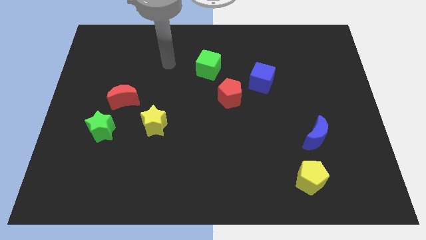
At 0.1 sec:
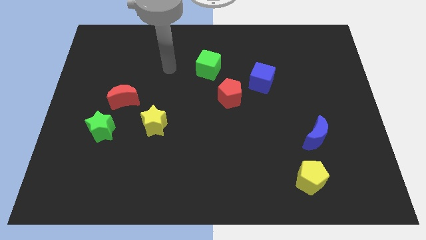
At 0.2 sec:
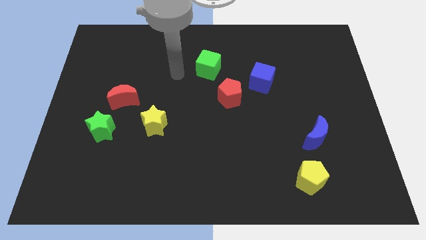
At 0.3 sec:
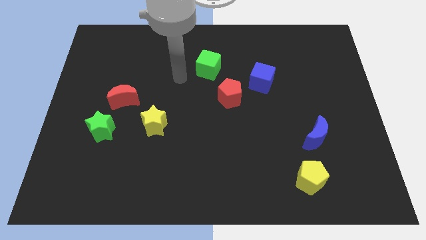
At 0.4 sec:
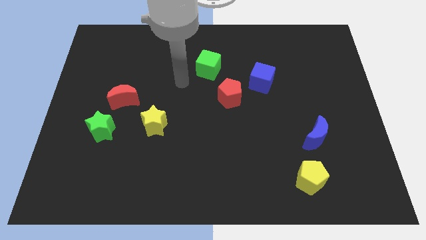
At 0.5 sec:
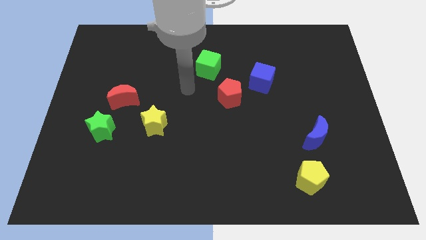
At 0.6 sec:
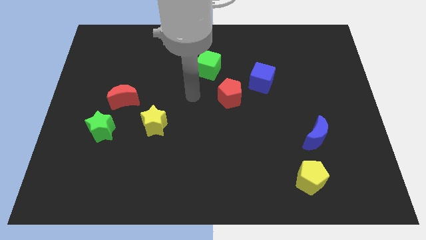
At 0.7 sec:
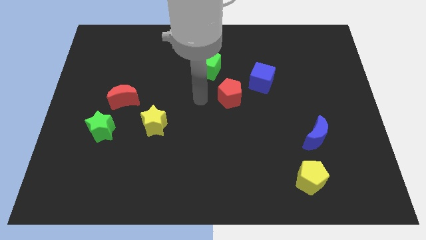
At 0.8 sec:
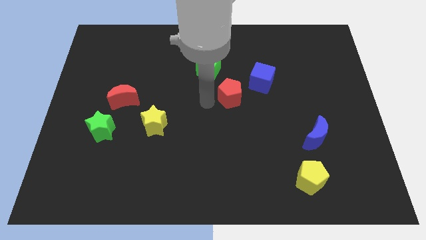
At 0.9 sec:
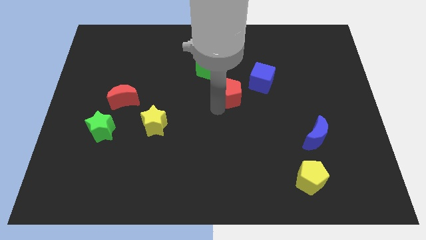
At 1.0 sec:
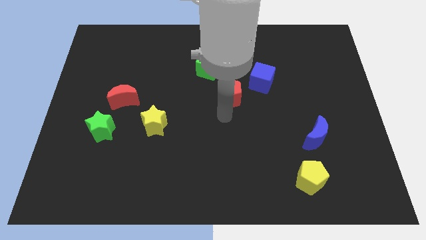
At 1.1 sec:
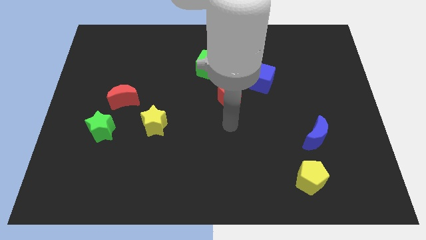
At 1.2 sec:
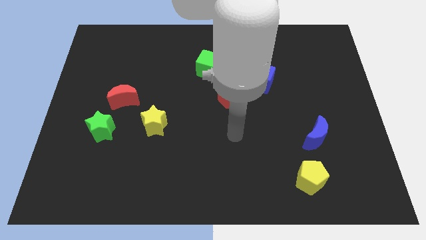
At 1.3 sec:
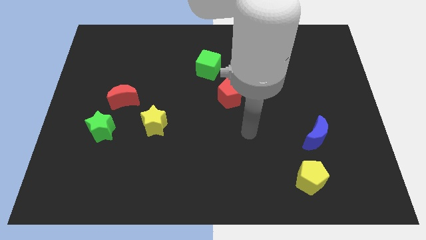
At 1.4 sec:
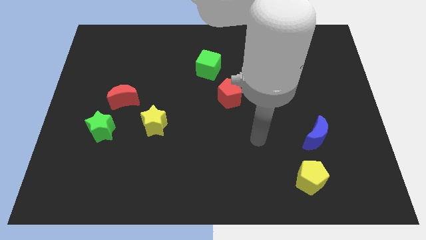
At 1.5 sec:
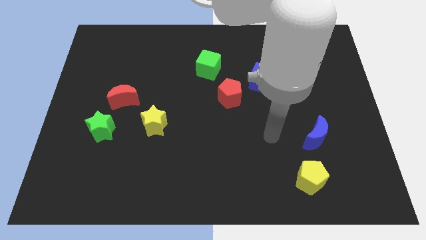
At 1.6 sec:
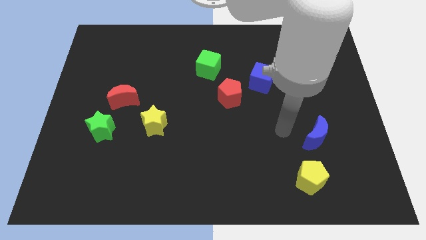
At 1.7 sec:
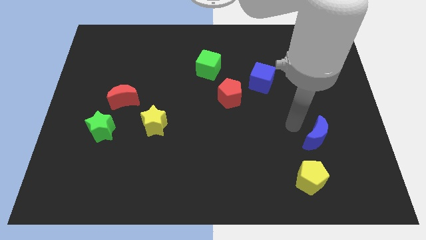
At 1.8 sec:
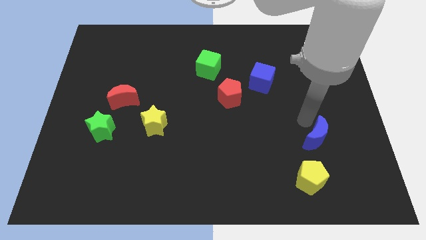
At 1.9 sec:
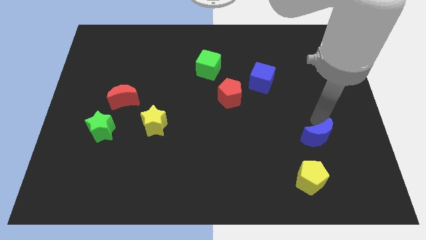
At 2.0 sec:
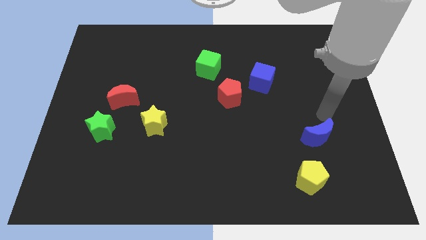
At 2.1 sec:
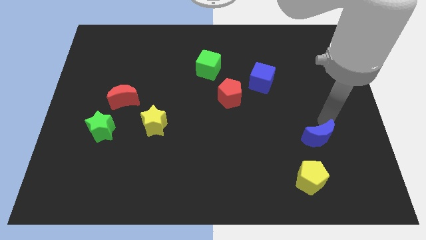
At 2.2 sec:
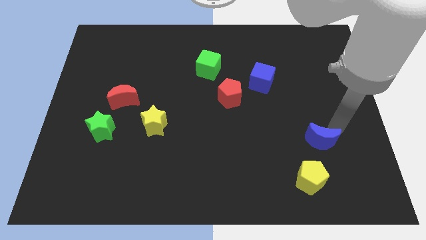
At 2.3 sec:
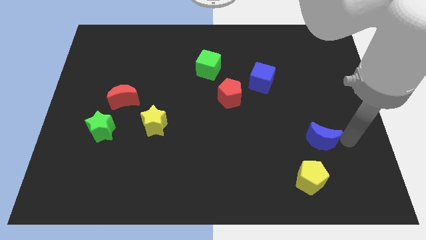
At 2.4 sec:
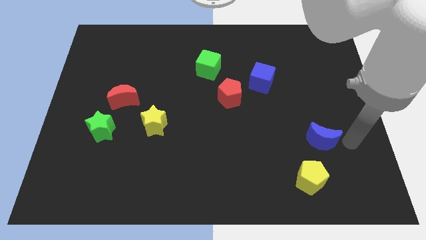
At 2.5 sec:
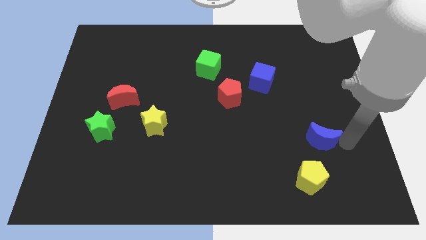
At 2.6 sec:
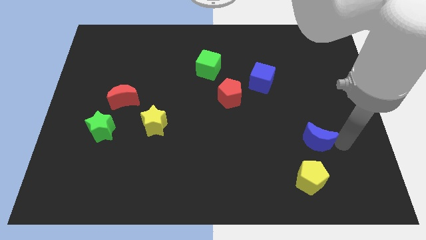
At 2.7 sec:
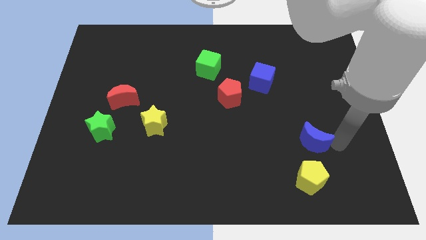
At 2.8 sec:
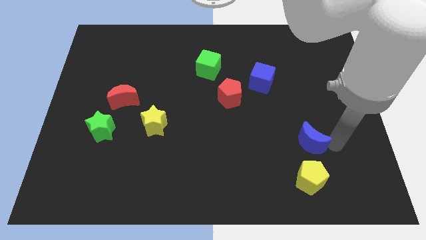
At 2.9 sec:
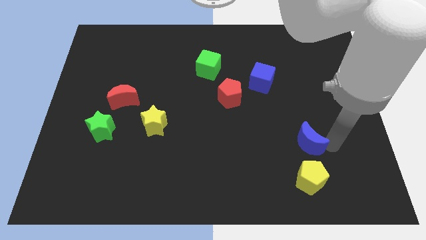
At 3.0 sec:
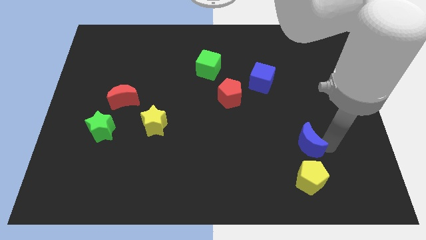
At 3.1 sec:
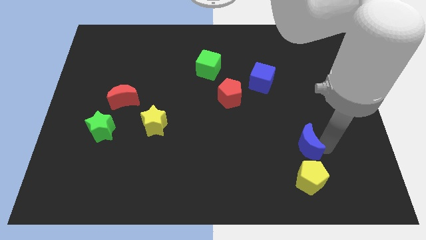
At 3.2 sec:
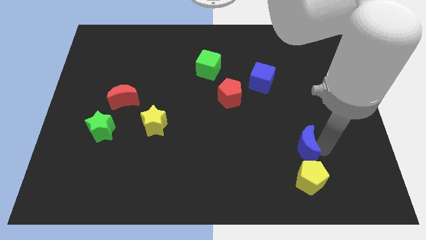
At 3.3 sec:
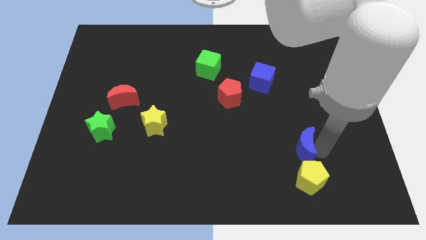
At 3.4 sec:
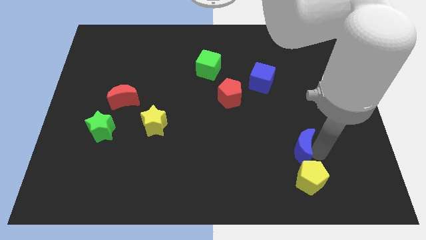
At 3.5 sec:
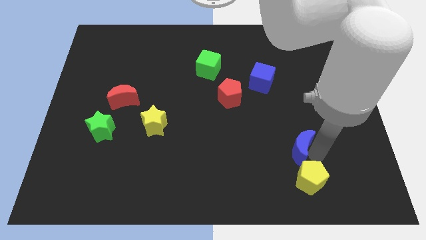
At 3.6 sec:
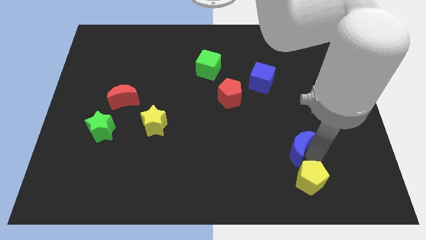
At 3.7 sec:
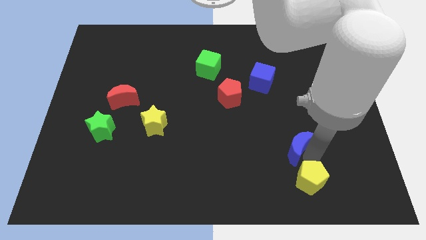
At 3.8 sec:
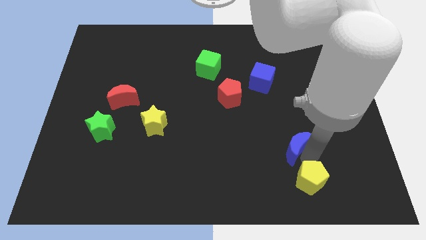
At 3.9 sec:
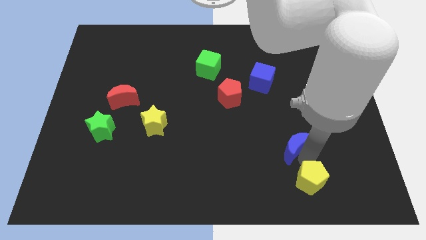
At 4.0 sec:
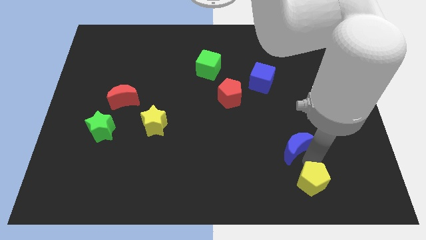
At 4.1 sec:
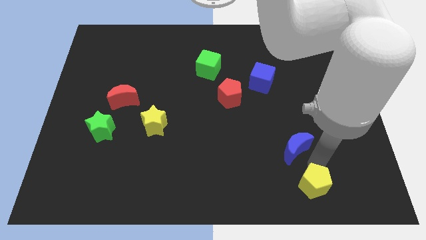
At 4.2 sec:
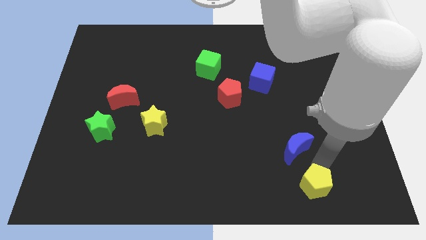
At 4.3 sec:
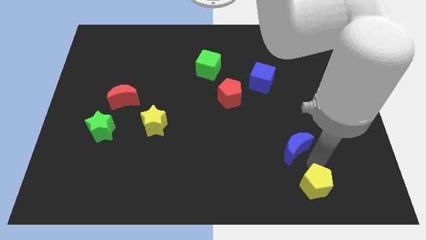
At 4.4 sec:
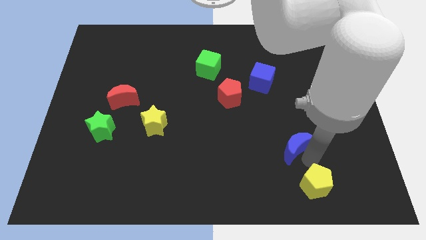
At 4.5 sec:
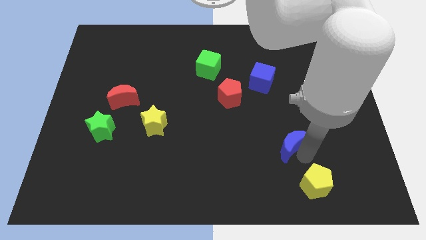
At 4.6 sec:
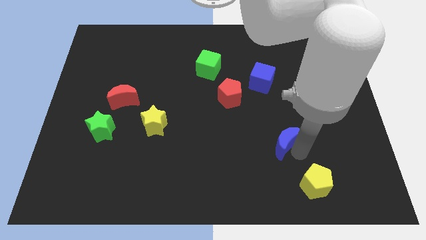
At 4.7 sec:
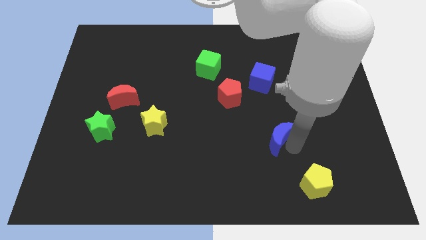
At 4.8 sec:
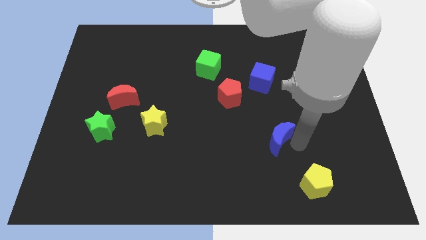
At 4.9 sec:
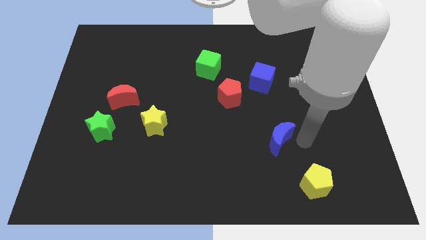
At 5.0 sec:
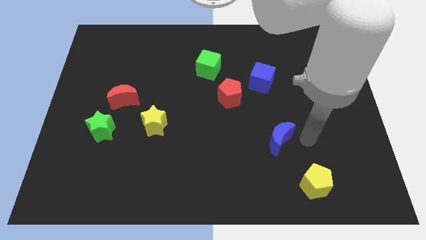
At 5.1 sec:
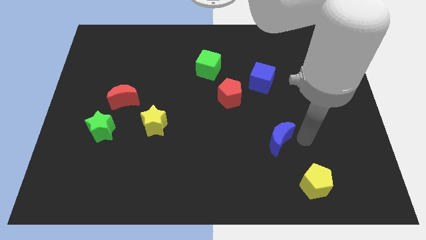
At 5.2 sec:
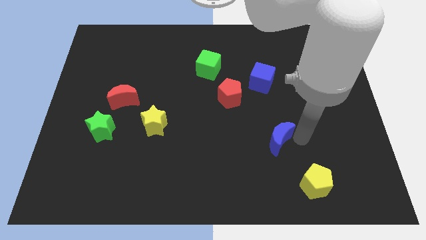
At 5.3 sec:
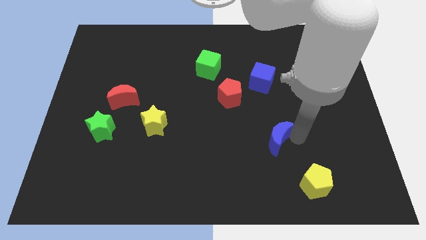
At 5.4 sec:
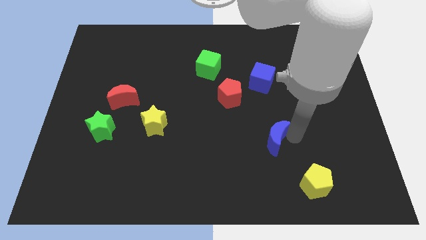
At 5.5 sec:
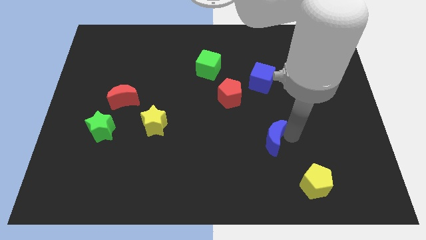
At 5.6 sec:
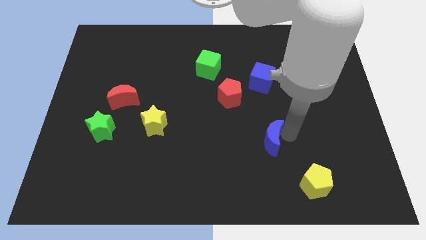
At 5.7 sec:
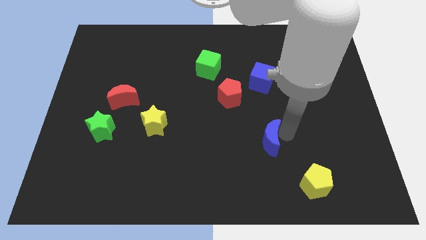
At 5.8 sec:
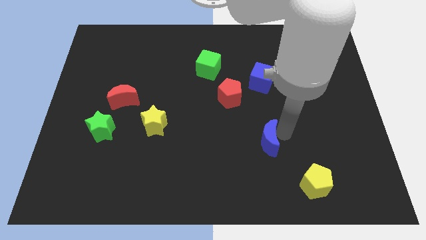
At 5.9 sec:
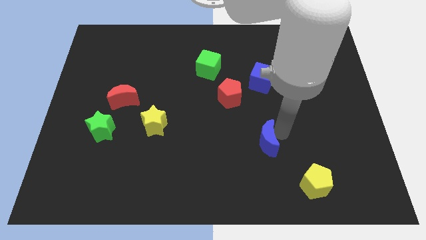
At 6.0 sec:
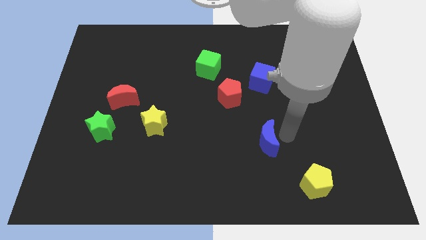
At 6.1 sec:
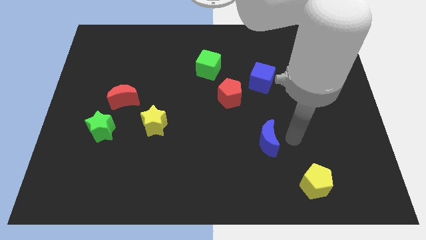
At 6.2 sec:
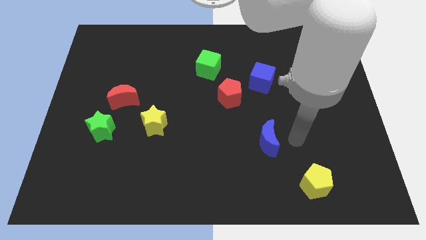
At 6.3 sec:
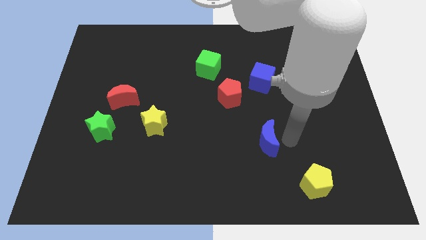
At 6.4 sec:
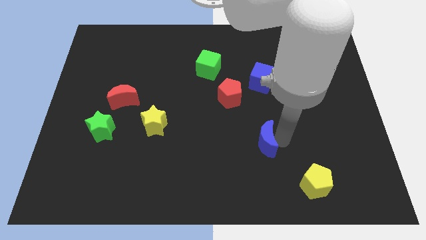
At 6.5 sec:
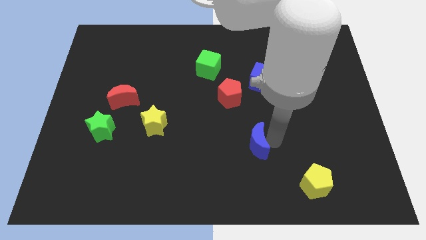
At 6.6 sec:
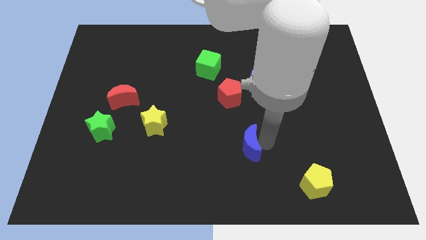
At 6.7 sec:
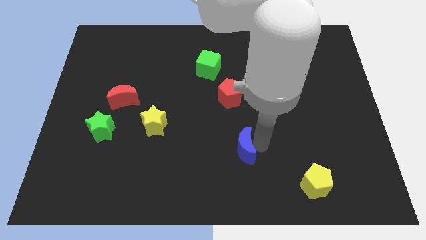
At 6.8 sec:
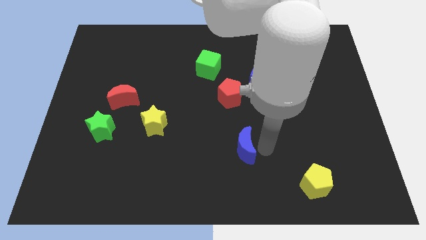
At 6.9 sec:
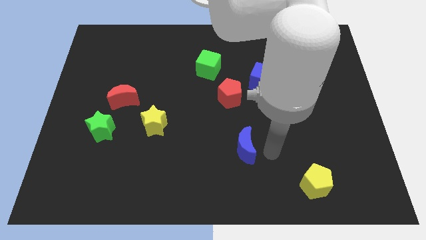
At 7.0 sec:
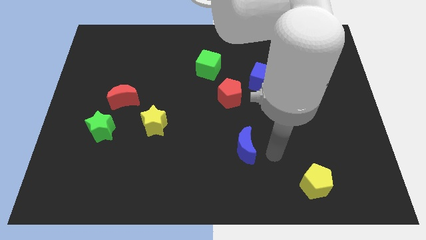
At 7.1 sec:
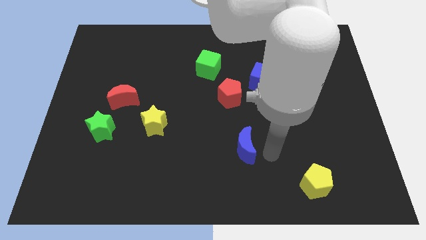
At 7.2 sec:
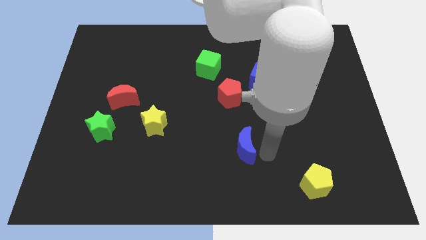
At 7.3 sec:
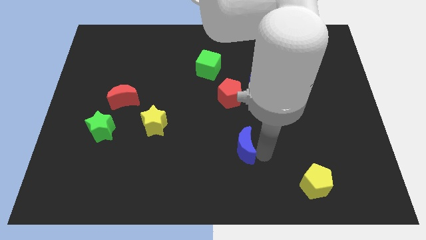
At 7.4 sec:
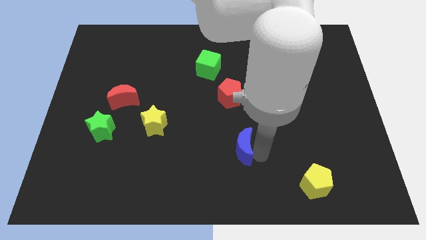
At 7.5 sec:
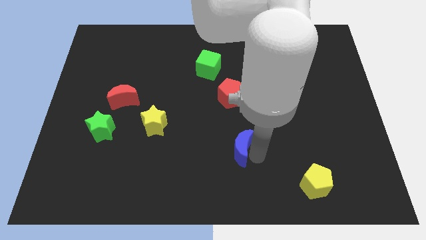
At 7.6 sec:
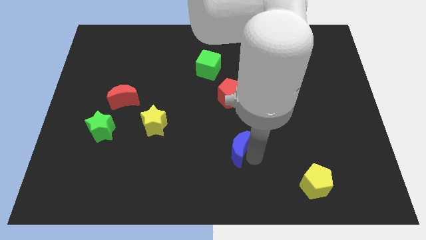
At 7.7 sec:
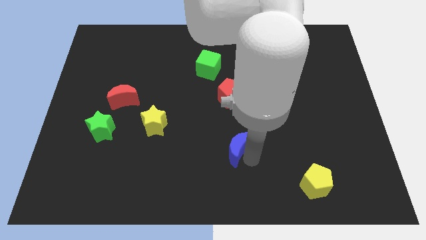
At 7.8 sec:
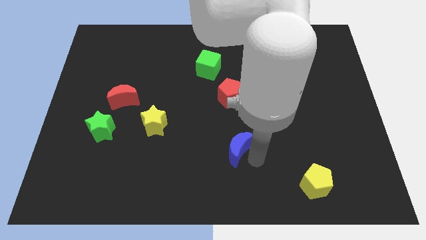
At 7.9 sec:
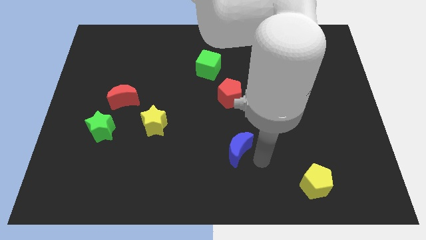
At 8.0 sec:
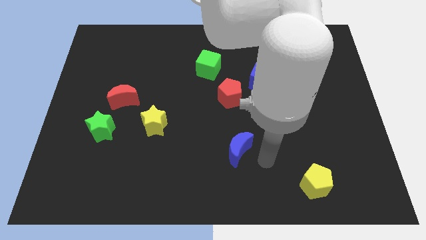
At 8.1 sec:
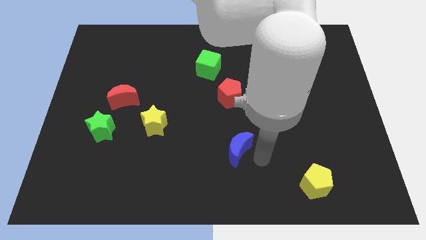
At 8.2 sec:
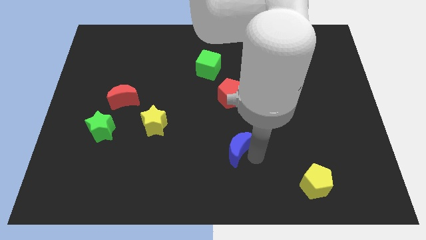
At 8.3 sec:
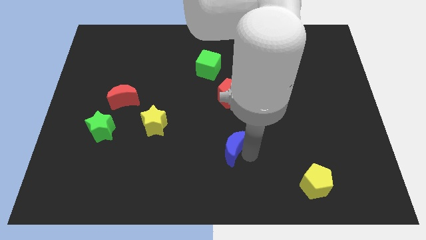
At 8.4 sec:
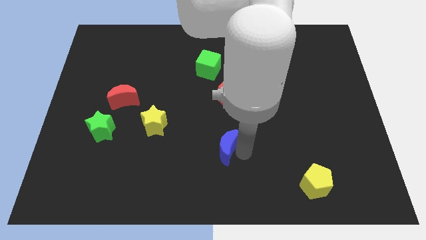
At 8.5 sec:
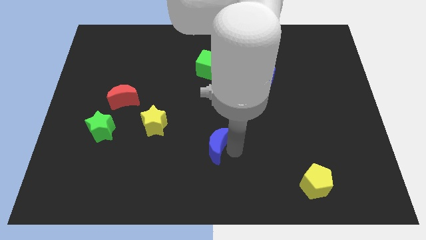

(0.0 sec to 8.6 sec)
move the blue moon to the left
